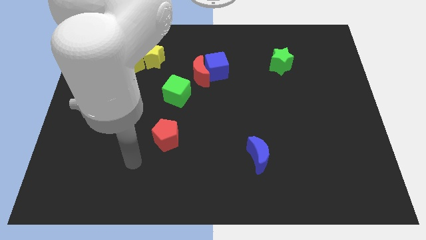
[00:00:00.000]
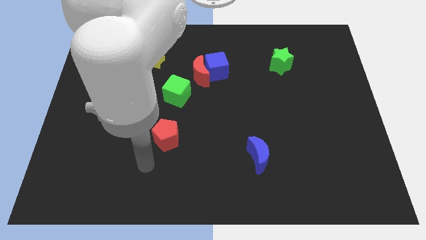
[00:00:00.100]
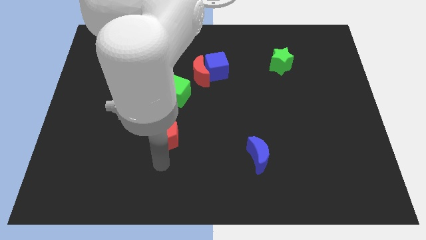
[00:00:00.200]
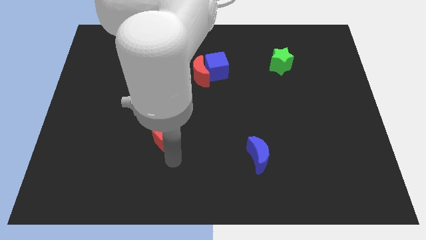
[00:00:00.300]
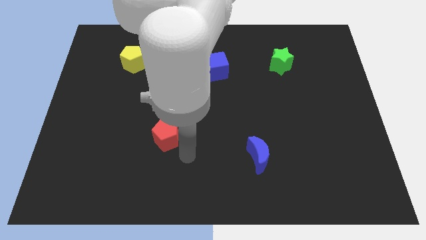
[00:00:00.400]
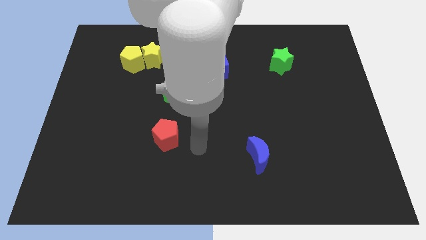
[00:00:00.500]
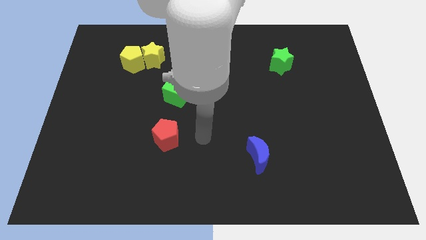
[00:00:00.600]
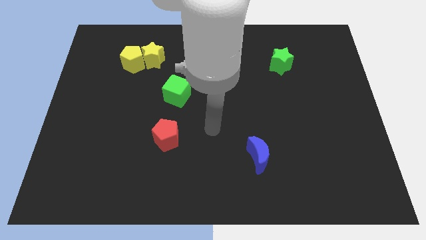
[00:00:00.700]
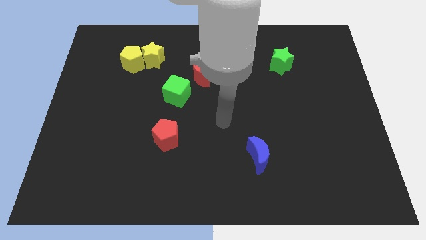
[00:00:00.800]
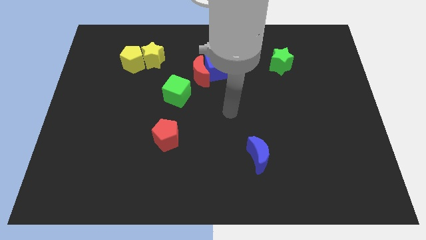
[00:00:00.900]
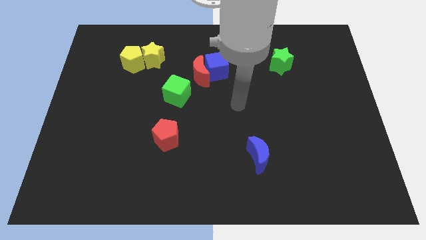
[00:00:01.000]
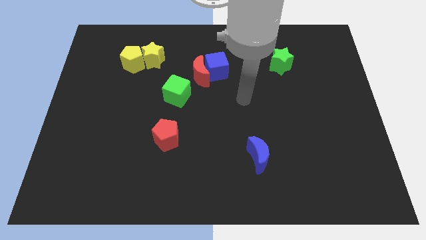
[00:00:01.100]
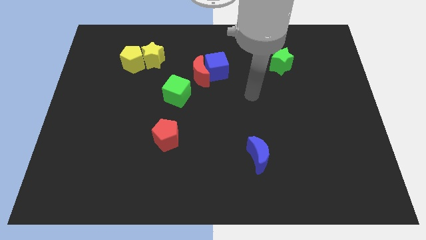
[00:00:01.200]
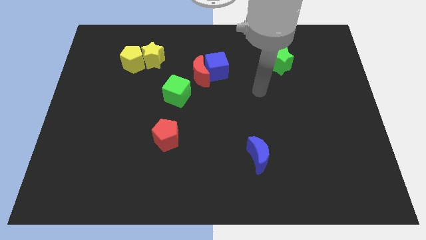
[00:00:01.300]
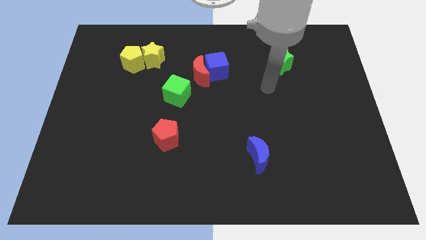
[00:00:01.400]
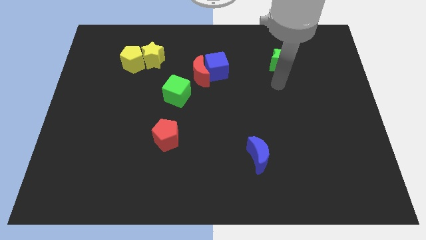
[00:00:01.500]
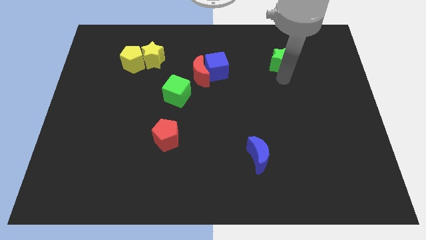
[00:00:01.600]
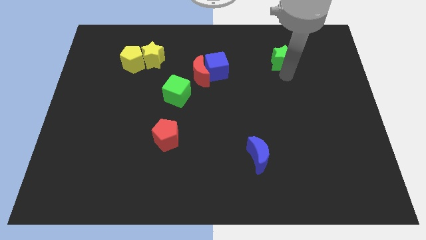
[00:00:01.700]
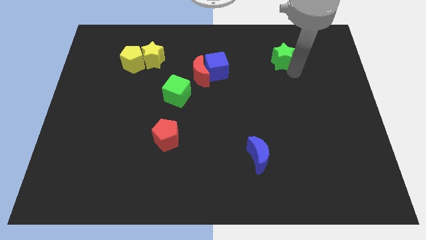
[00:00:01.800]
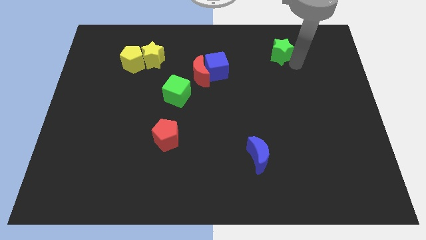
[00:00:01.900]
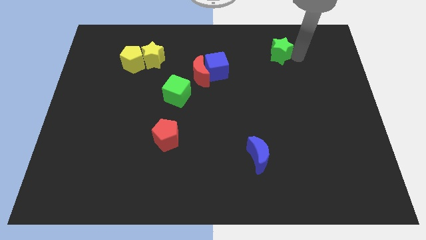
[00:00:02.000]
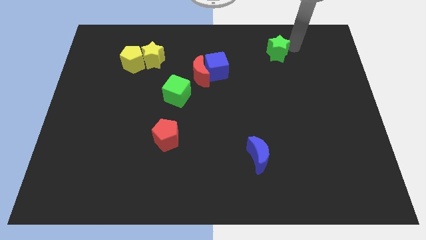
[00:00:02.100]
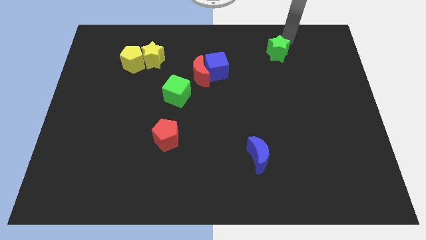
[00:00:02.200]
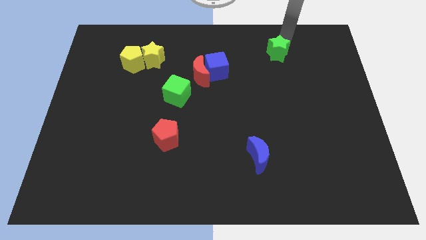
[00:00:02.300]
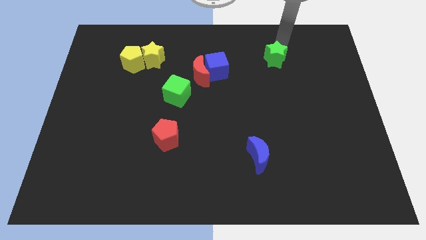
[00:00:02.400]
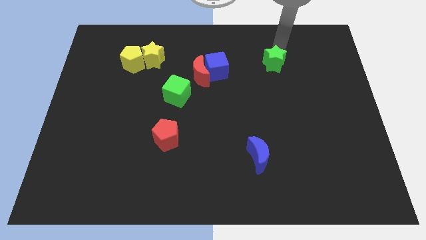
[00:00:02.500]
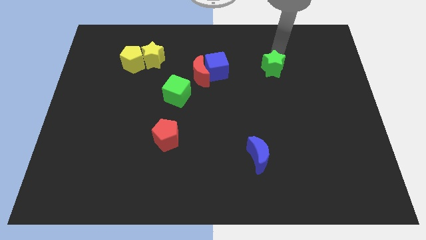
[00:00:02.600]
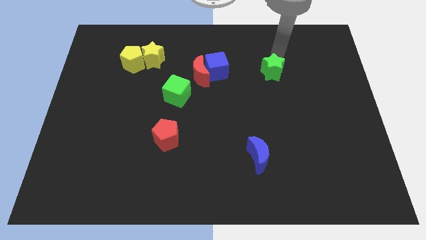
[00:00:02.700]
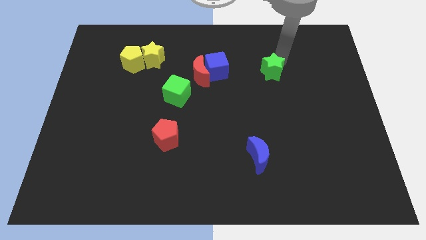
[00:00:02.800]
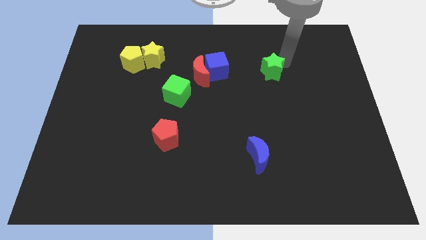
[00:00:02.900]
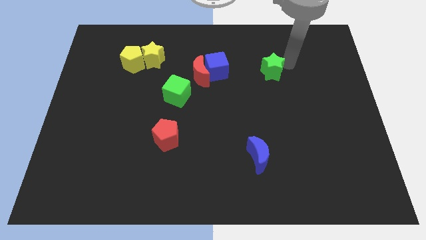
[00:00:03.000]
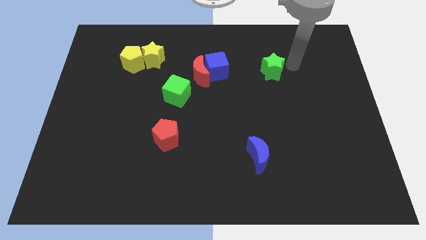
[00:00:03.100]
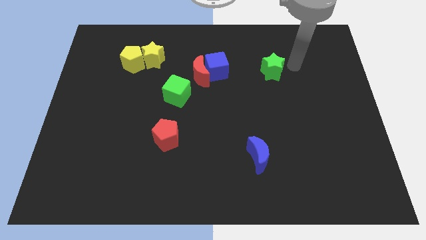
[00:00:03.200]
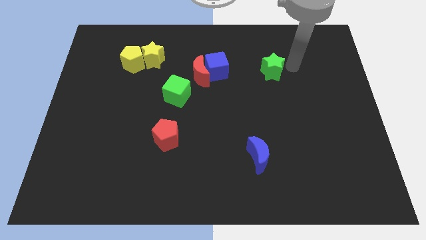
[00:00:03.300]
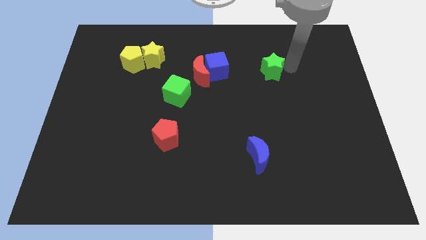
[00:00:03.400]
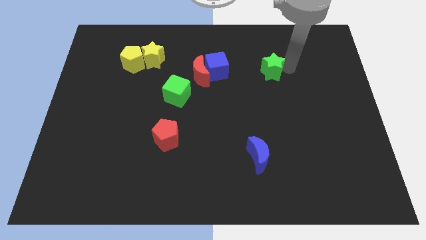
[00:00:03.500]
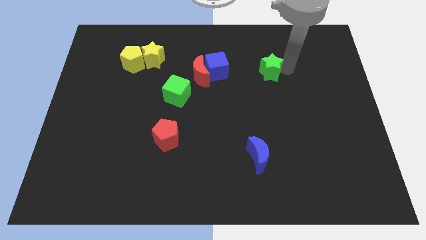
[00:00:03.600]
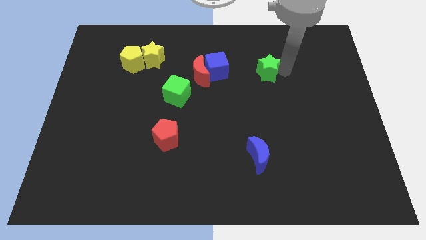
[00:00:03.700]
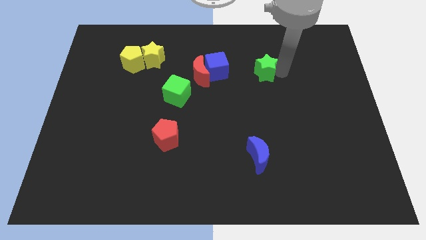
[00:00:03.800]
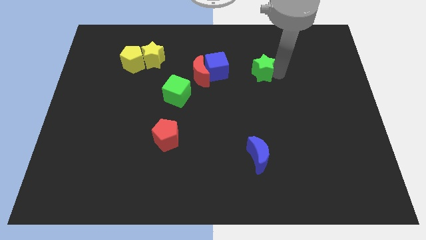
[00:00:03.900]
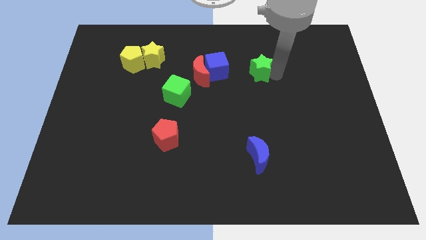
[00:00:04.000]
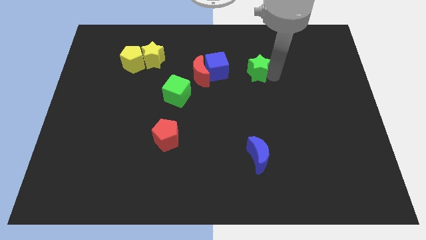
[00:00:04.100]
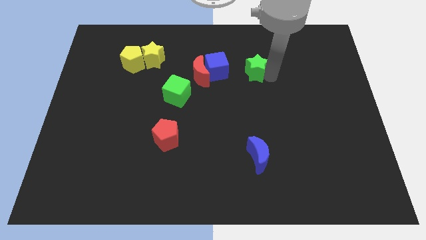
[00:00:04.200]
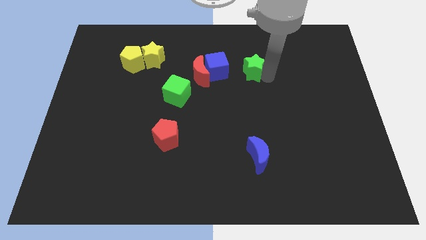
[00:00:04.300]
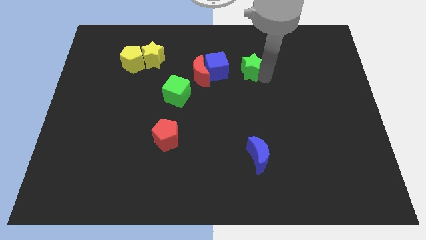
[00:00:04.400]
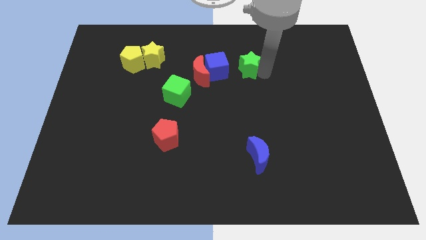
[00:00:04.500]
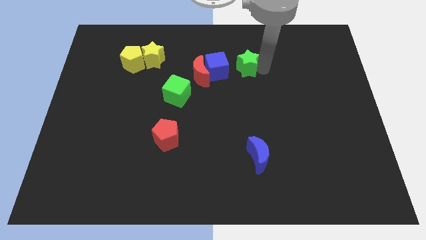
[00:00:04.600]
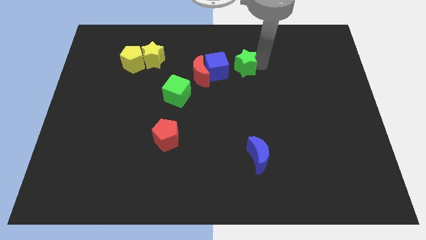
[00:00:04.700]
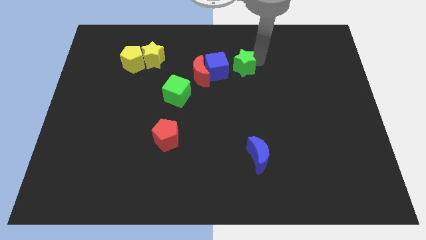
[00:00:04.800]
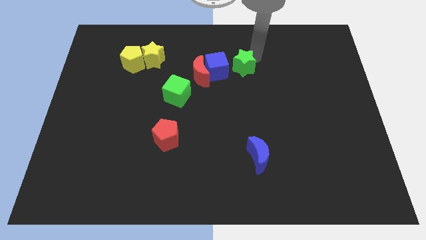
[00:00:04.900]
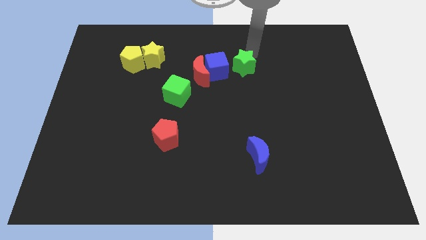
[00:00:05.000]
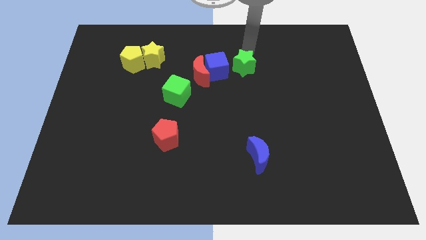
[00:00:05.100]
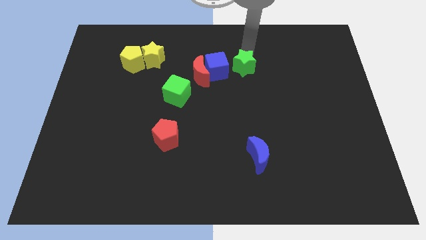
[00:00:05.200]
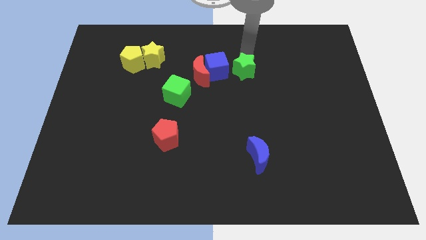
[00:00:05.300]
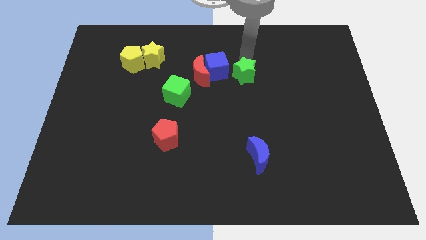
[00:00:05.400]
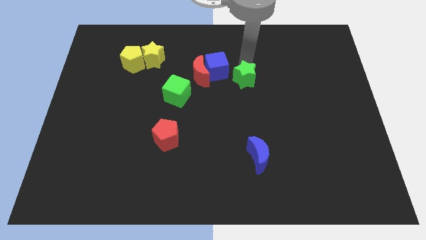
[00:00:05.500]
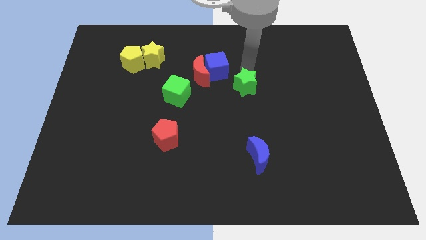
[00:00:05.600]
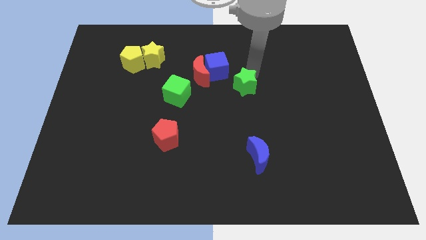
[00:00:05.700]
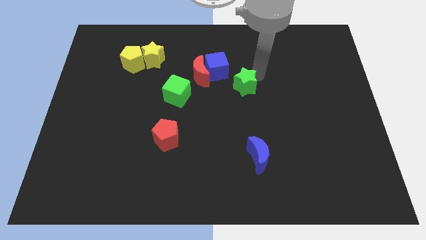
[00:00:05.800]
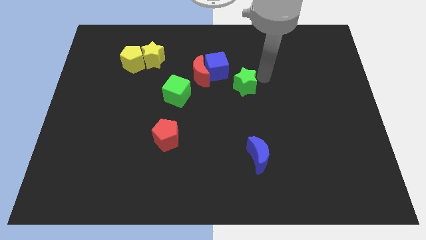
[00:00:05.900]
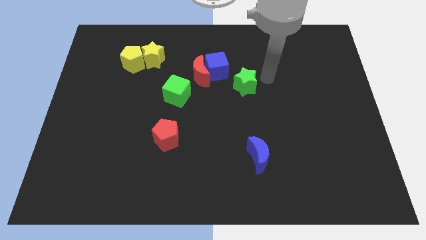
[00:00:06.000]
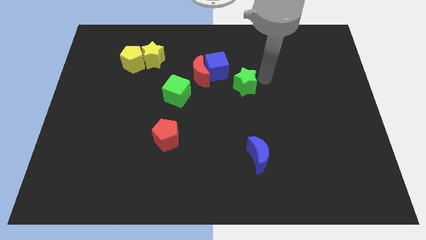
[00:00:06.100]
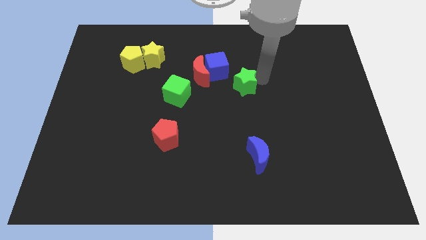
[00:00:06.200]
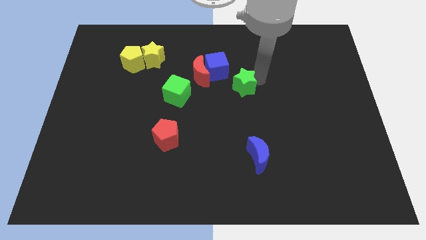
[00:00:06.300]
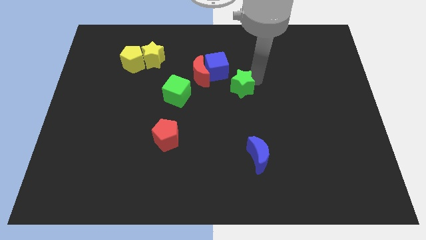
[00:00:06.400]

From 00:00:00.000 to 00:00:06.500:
move the green star right of the green cube

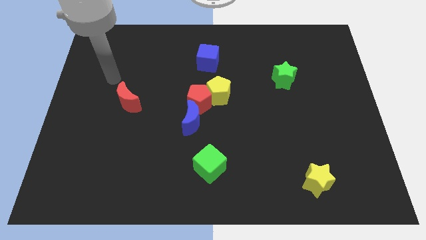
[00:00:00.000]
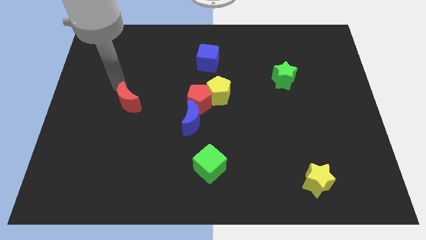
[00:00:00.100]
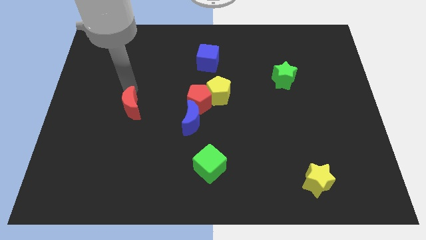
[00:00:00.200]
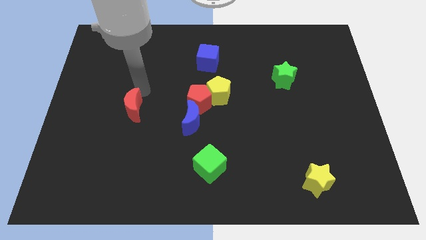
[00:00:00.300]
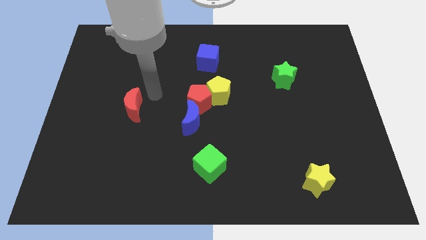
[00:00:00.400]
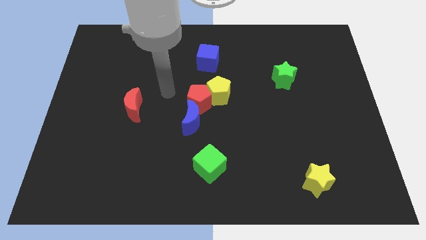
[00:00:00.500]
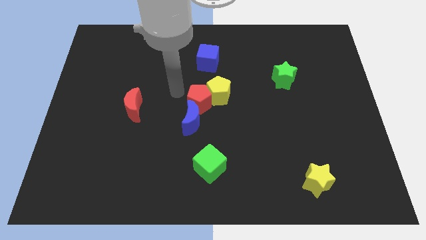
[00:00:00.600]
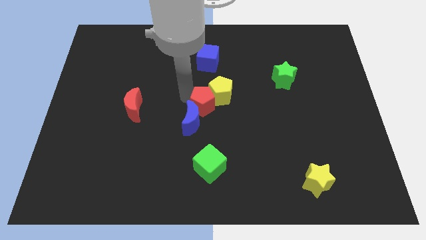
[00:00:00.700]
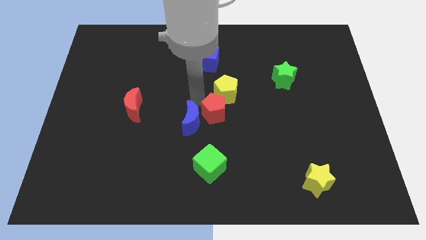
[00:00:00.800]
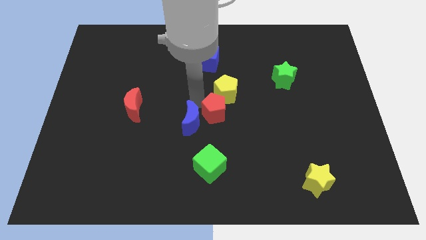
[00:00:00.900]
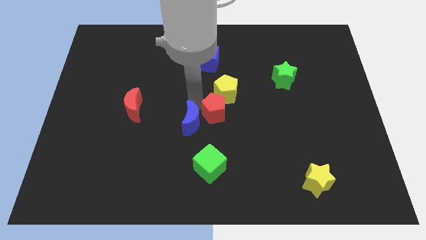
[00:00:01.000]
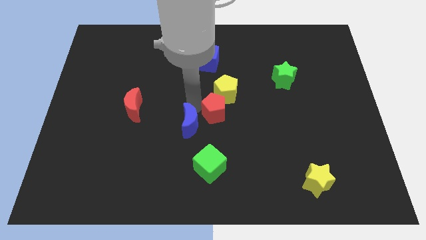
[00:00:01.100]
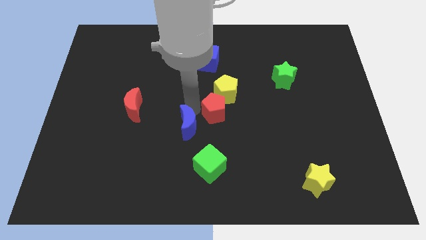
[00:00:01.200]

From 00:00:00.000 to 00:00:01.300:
put the blue moon to the top left side of the green cube
